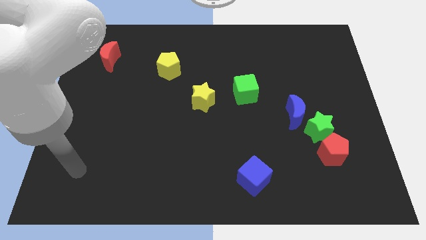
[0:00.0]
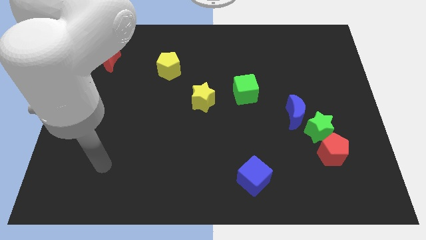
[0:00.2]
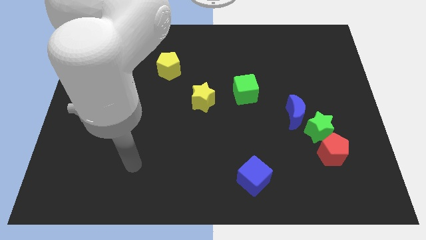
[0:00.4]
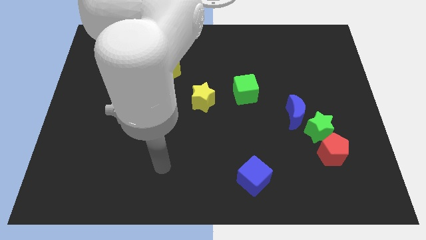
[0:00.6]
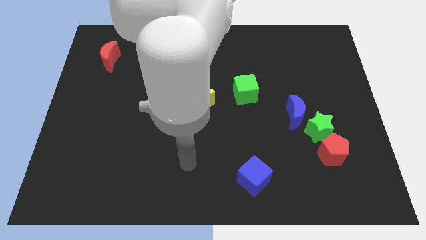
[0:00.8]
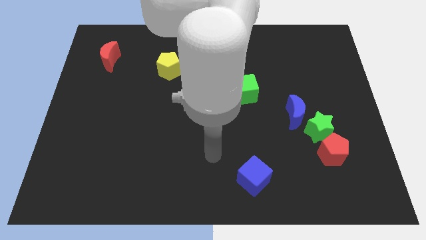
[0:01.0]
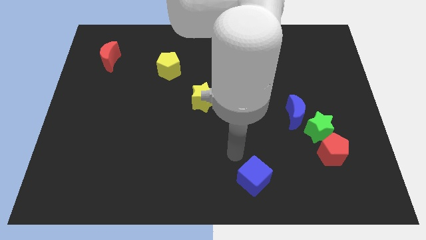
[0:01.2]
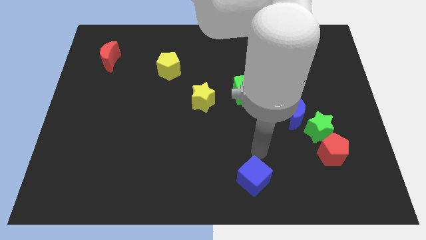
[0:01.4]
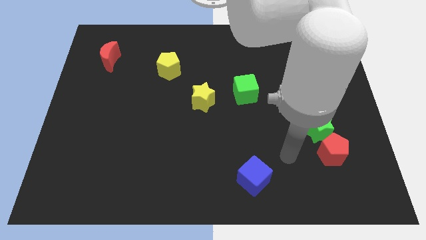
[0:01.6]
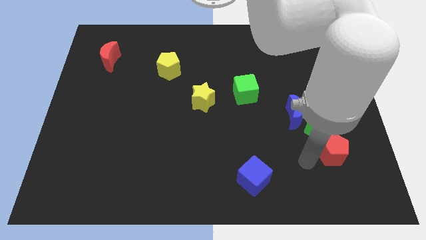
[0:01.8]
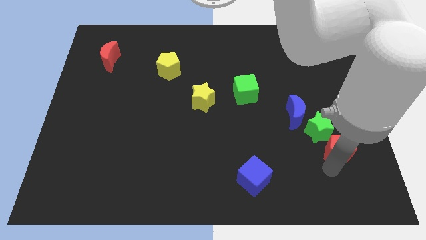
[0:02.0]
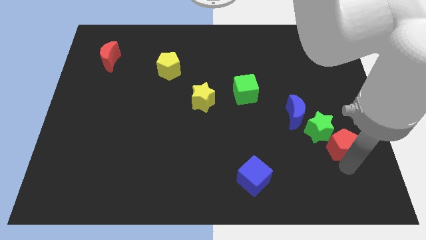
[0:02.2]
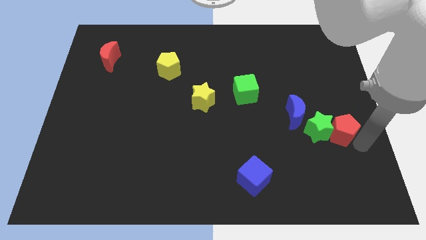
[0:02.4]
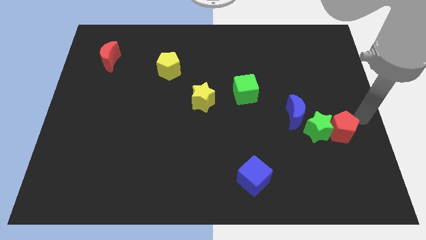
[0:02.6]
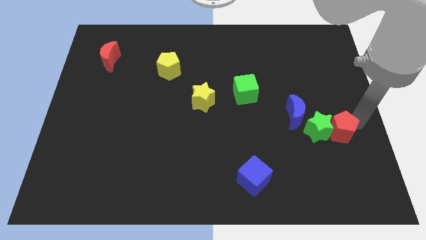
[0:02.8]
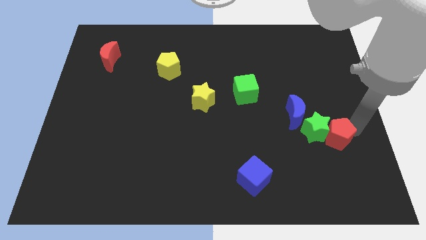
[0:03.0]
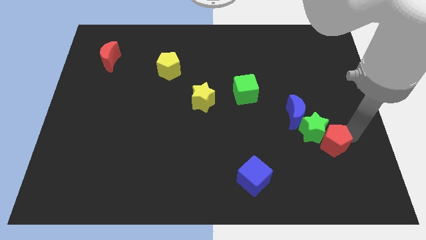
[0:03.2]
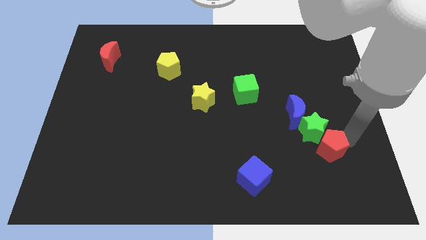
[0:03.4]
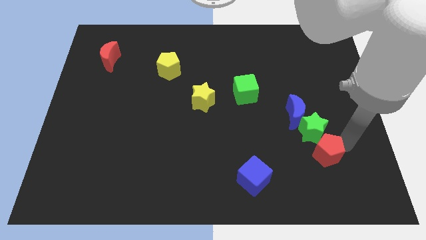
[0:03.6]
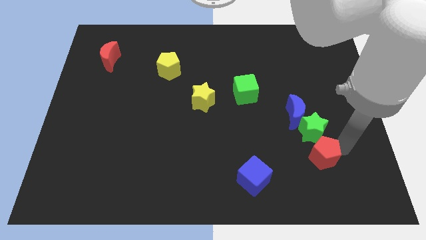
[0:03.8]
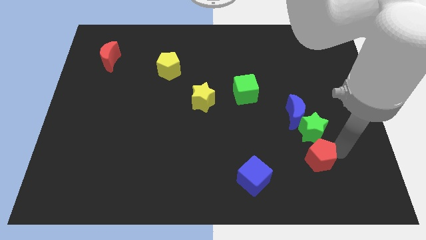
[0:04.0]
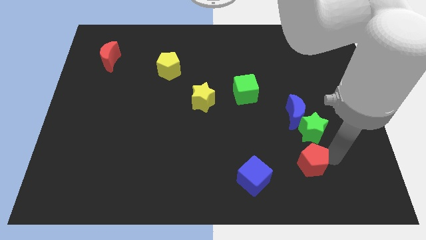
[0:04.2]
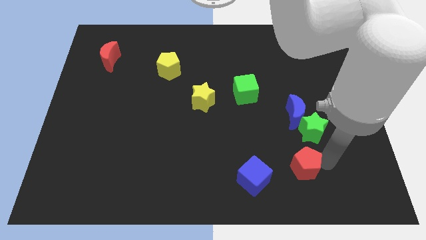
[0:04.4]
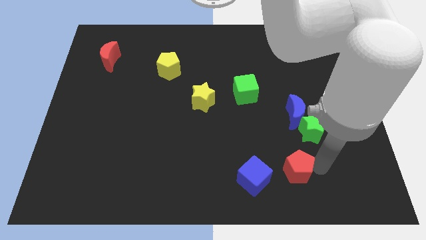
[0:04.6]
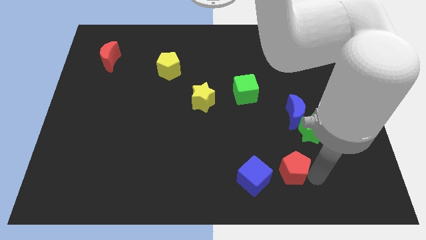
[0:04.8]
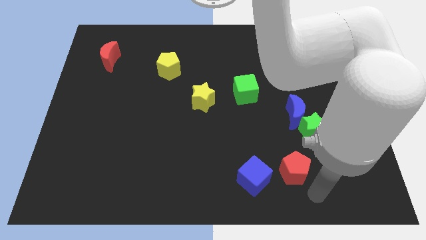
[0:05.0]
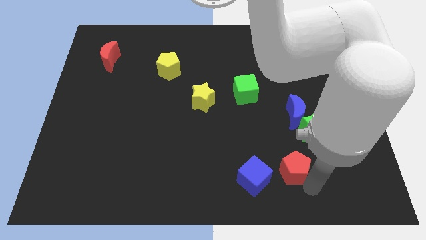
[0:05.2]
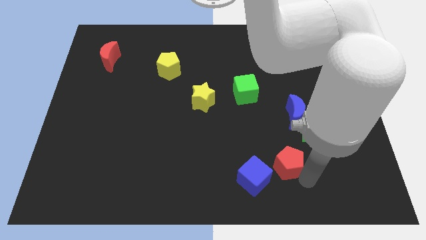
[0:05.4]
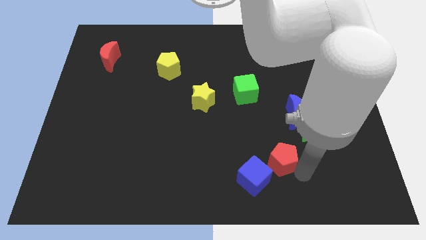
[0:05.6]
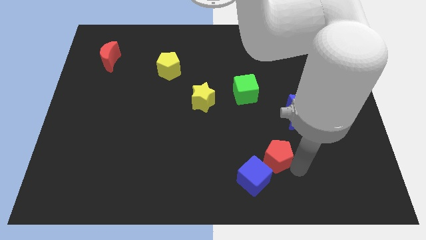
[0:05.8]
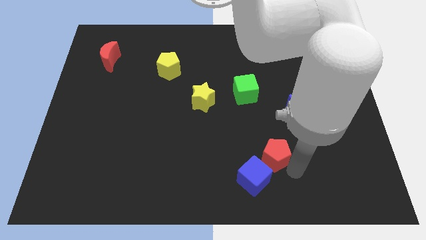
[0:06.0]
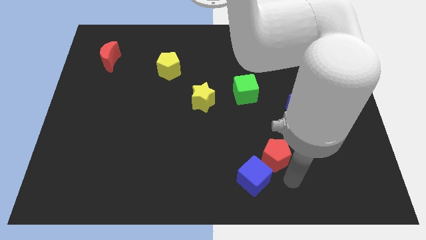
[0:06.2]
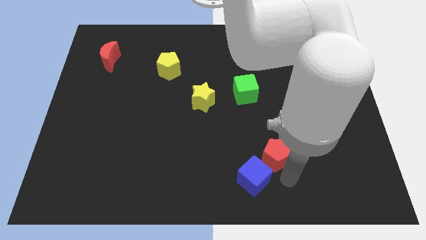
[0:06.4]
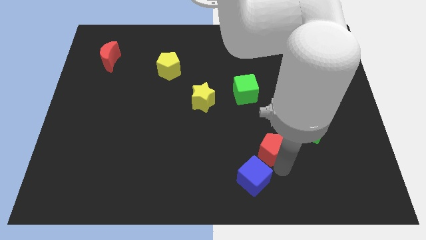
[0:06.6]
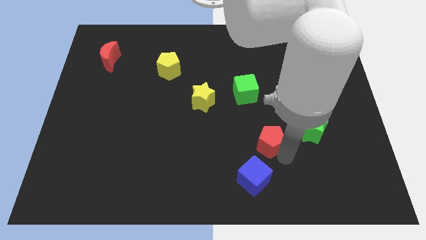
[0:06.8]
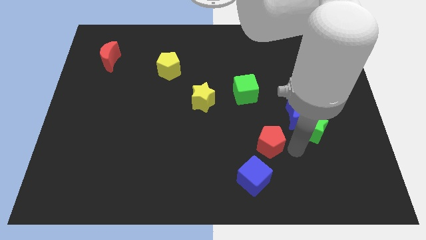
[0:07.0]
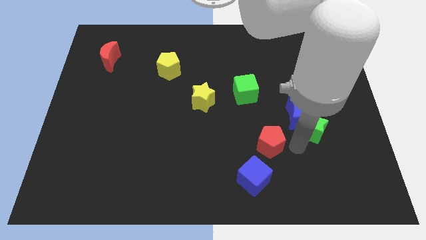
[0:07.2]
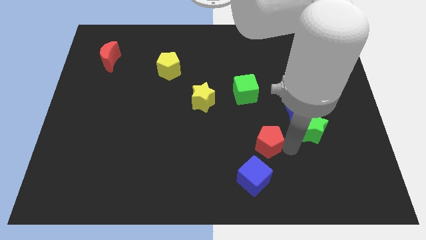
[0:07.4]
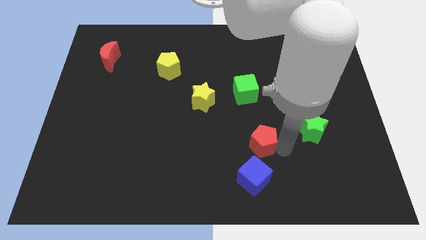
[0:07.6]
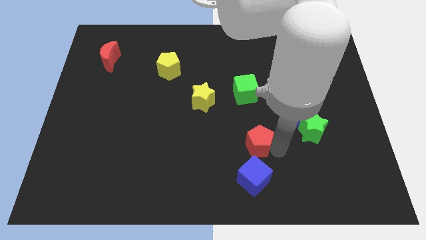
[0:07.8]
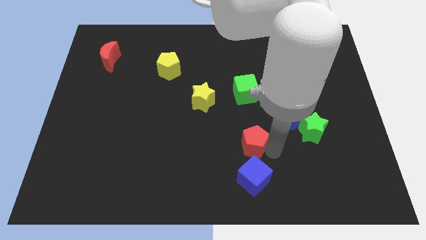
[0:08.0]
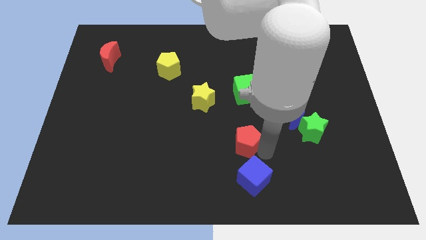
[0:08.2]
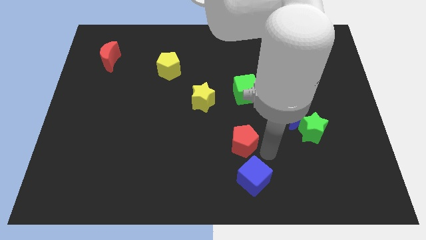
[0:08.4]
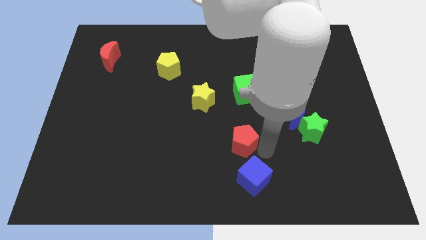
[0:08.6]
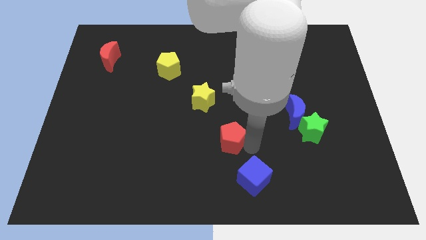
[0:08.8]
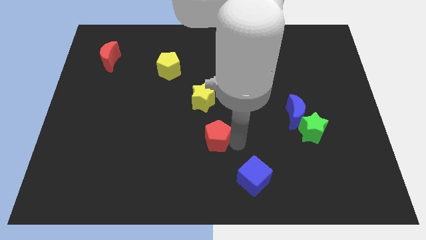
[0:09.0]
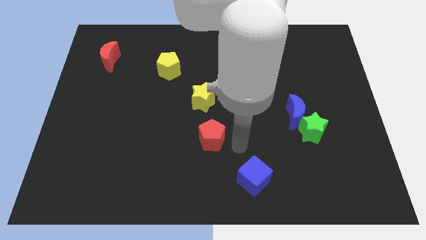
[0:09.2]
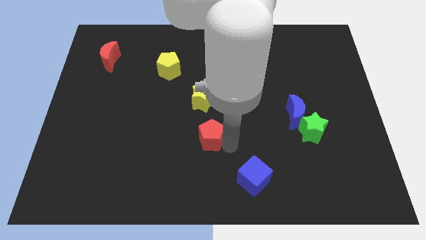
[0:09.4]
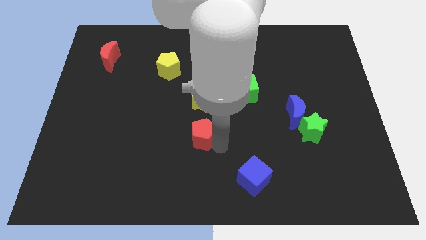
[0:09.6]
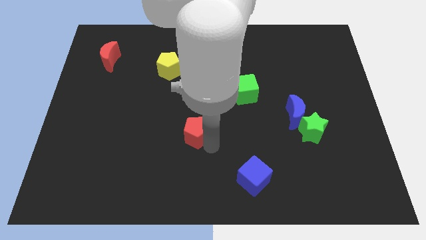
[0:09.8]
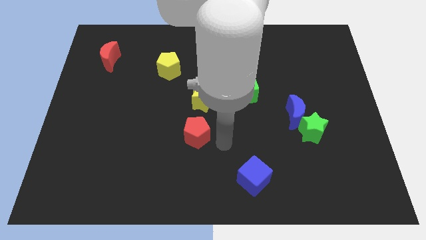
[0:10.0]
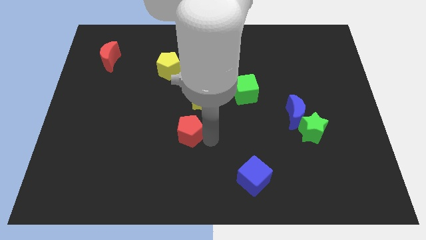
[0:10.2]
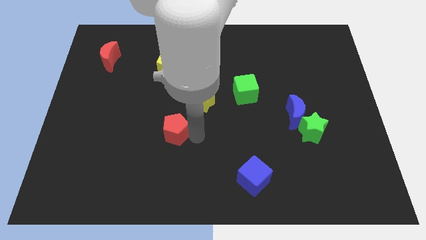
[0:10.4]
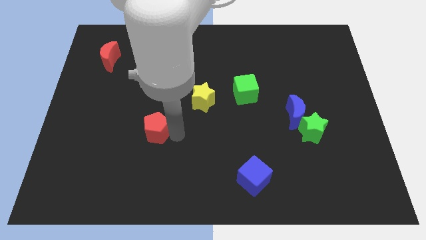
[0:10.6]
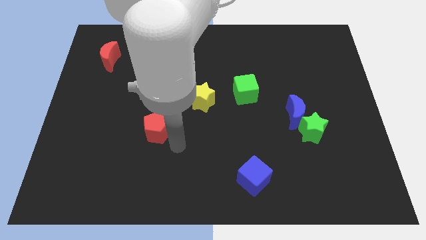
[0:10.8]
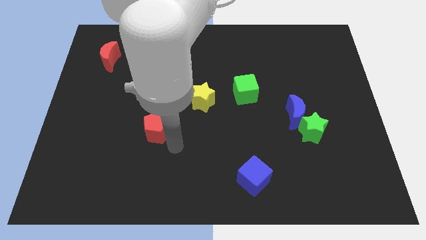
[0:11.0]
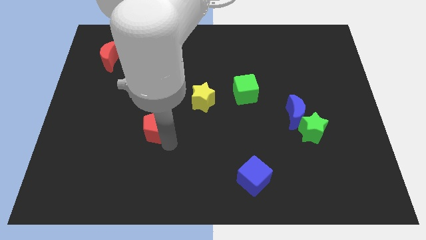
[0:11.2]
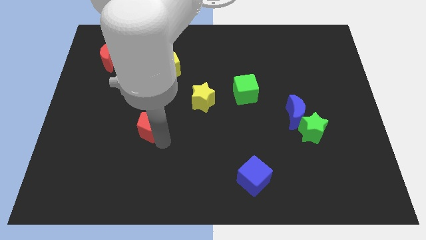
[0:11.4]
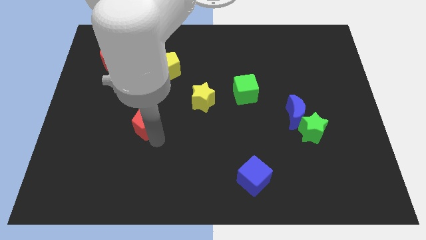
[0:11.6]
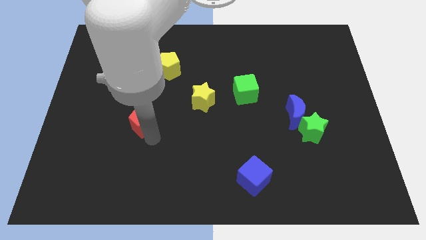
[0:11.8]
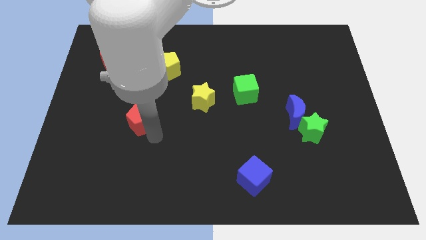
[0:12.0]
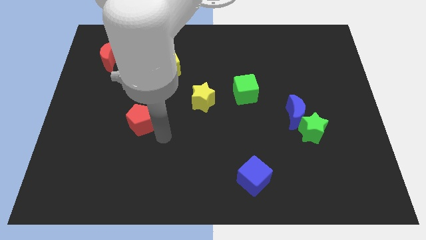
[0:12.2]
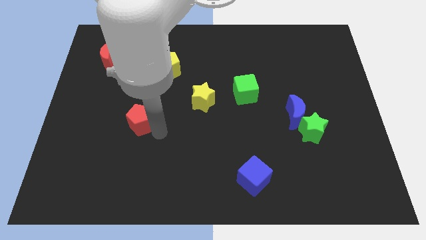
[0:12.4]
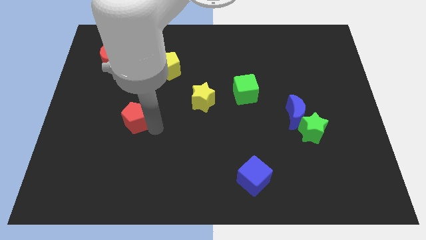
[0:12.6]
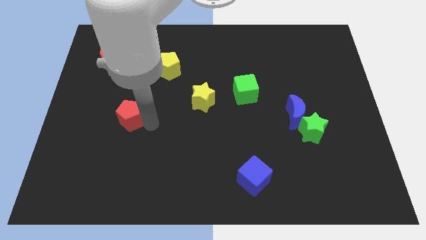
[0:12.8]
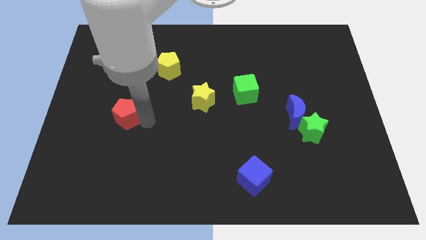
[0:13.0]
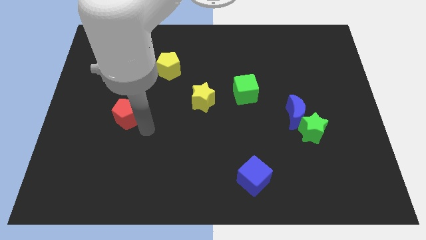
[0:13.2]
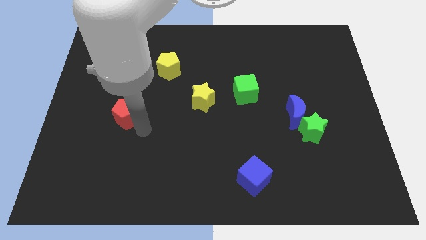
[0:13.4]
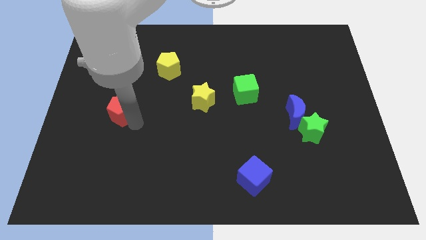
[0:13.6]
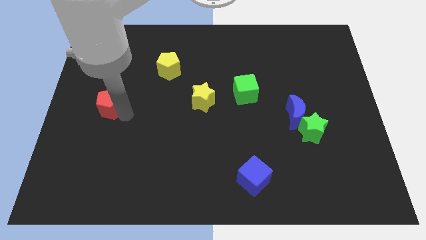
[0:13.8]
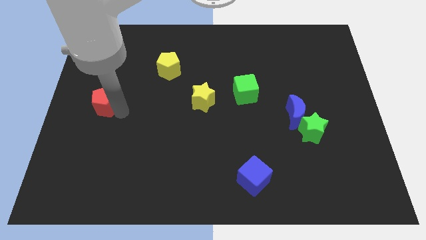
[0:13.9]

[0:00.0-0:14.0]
move the red pentagon to the left side
